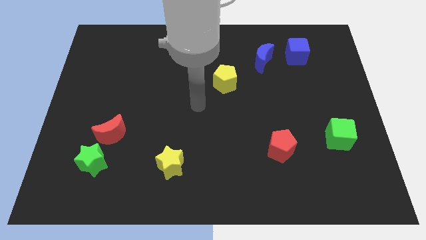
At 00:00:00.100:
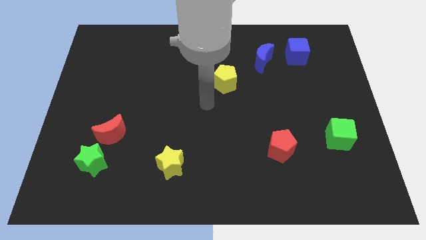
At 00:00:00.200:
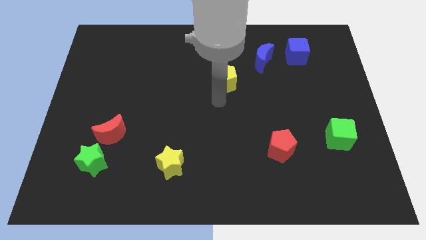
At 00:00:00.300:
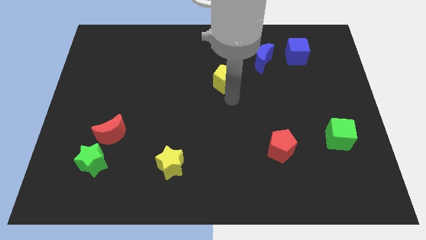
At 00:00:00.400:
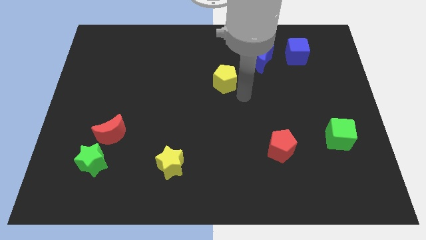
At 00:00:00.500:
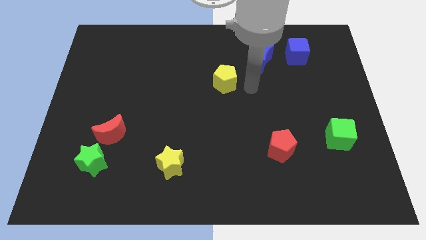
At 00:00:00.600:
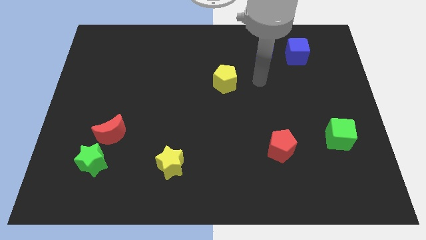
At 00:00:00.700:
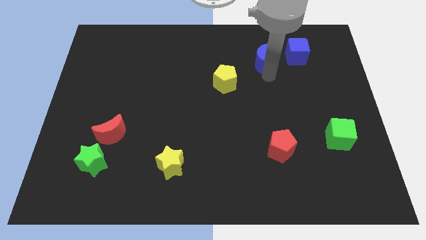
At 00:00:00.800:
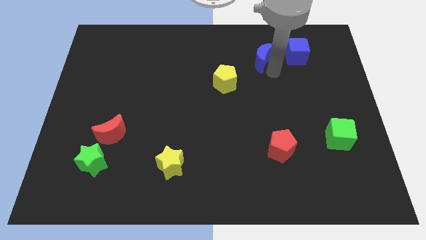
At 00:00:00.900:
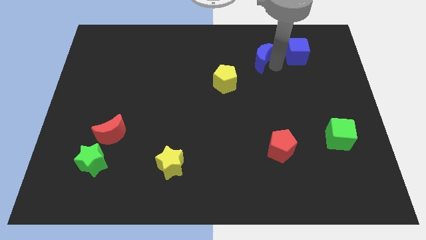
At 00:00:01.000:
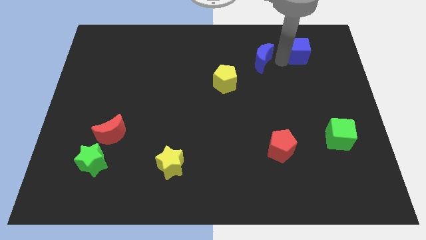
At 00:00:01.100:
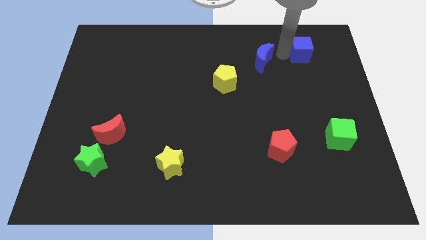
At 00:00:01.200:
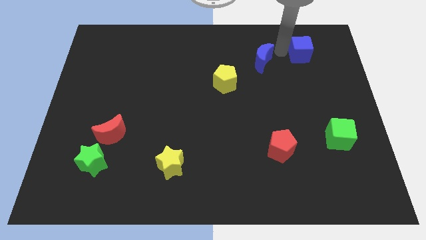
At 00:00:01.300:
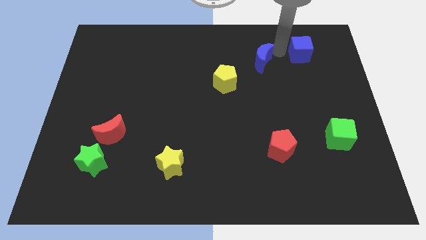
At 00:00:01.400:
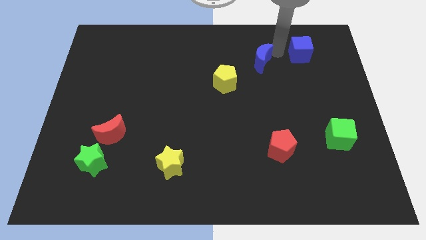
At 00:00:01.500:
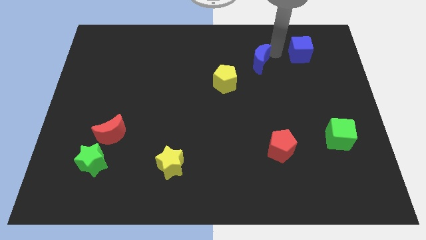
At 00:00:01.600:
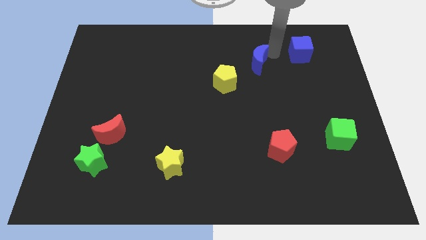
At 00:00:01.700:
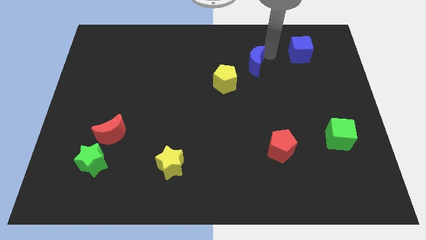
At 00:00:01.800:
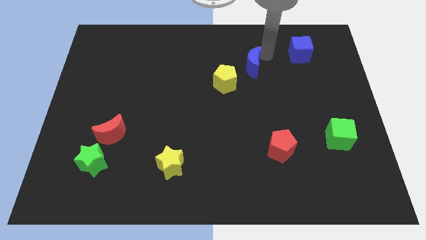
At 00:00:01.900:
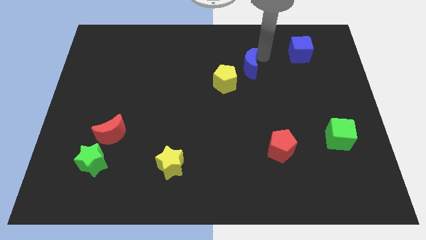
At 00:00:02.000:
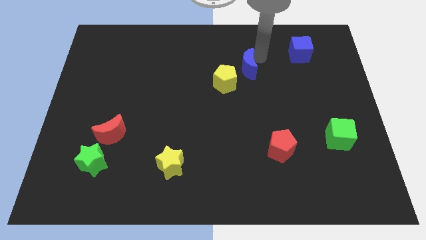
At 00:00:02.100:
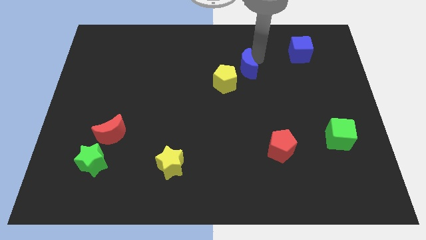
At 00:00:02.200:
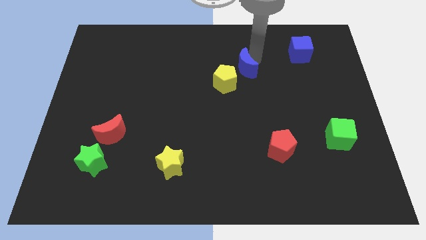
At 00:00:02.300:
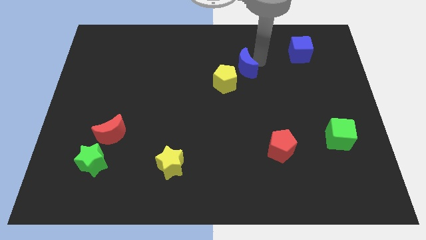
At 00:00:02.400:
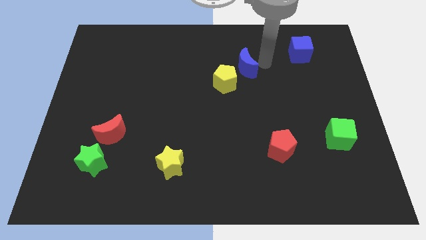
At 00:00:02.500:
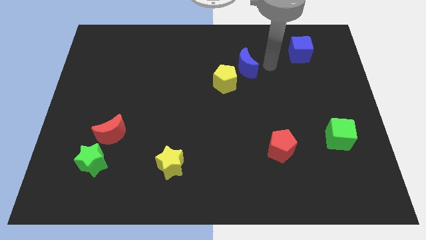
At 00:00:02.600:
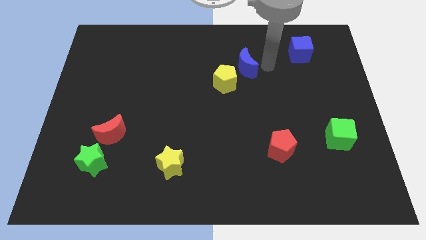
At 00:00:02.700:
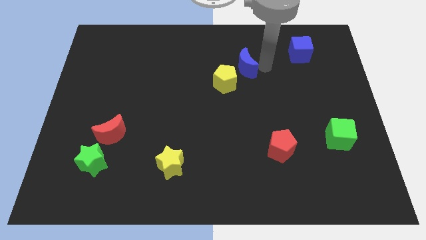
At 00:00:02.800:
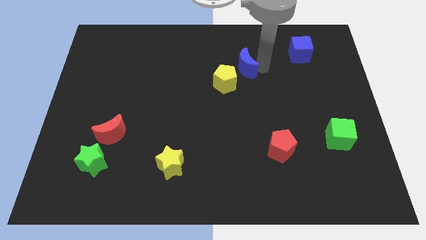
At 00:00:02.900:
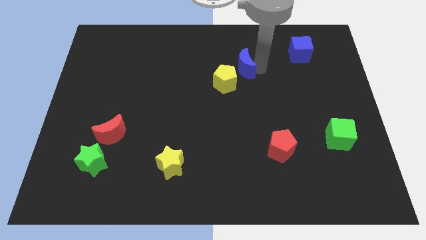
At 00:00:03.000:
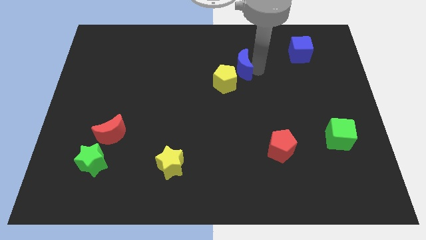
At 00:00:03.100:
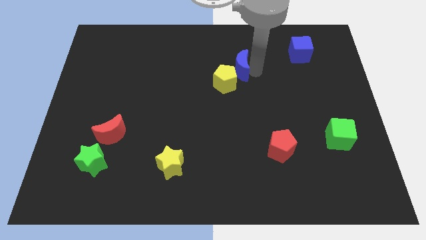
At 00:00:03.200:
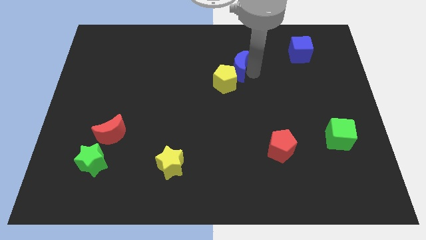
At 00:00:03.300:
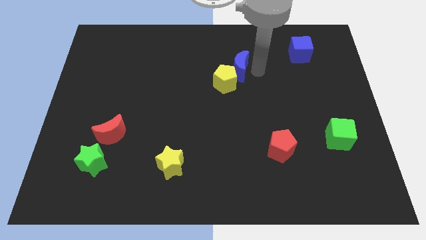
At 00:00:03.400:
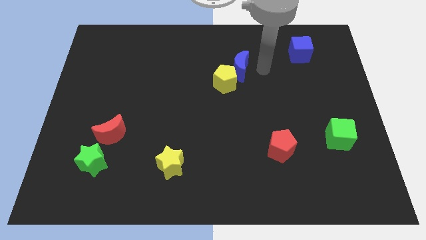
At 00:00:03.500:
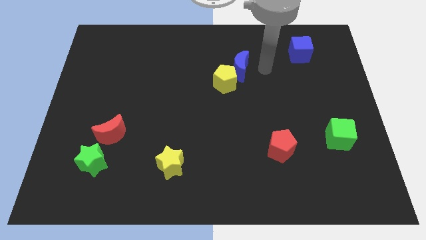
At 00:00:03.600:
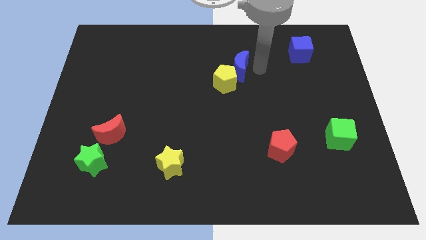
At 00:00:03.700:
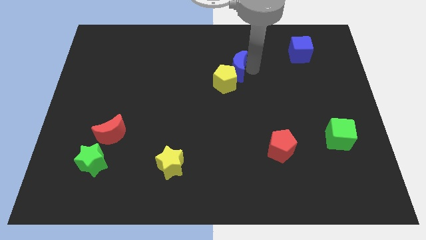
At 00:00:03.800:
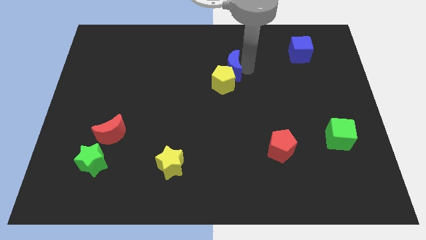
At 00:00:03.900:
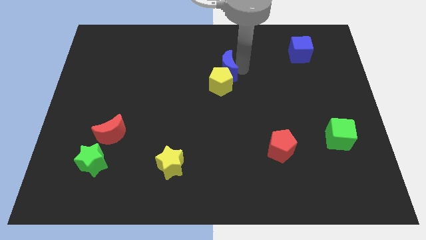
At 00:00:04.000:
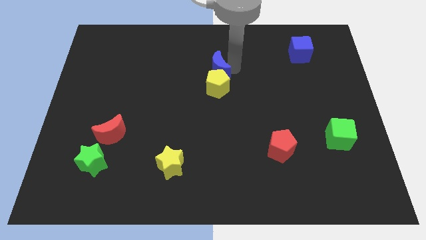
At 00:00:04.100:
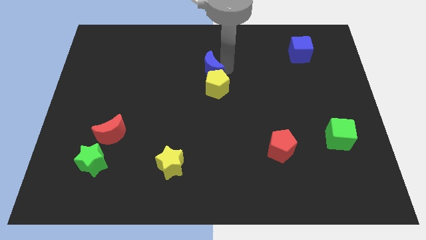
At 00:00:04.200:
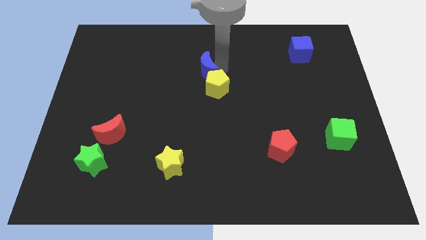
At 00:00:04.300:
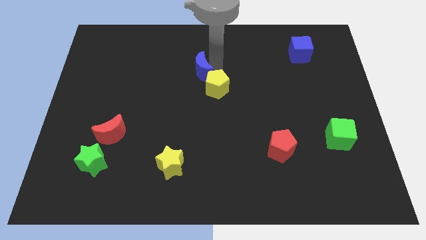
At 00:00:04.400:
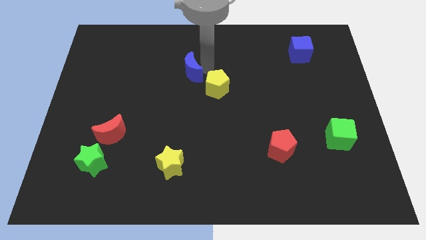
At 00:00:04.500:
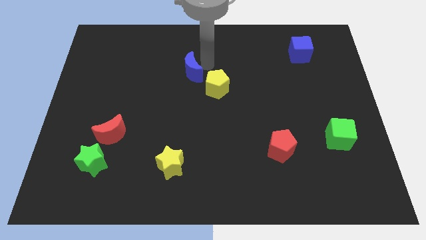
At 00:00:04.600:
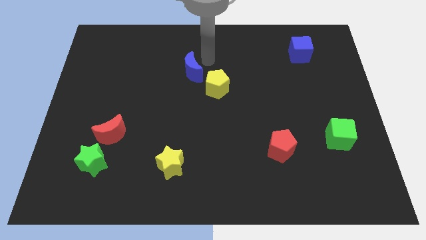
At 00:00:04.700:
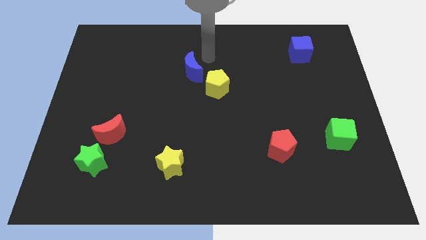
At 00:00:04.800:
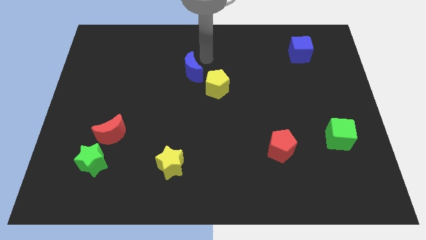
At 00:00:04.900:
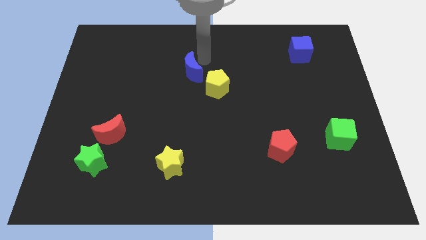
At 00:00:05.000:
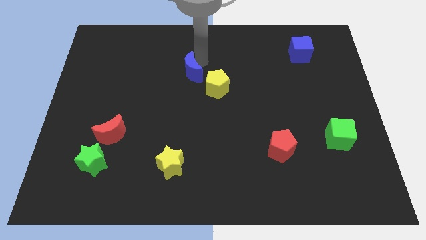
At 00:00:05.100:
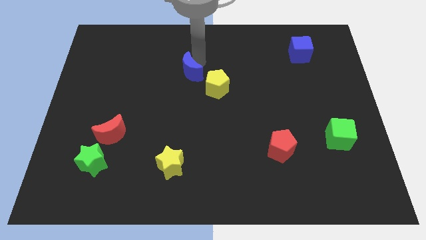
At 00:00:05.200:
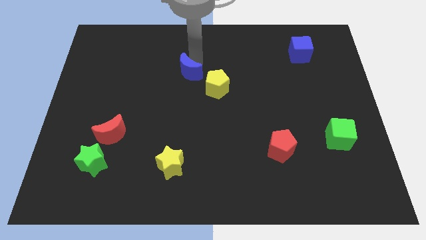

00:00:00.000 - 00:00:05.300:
move the blue moon to the left side of the yellow pentagon

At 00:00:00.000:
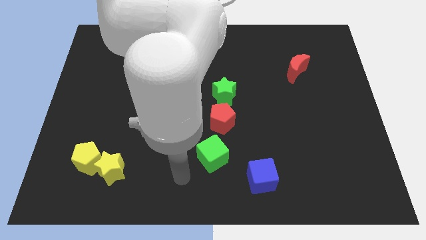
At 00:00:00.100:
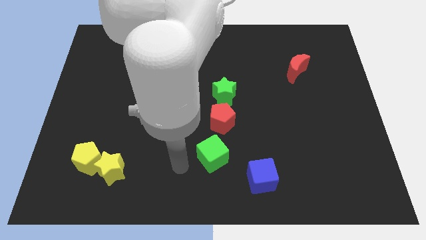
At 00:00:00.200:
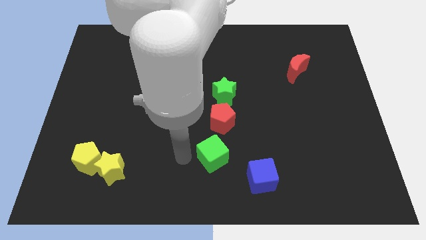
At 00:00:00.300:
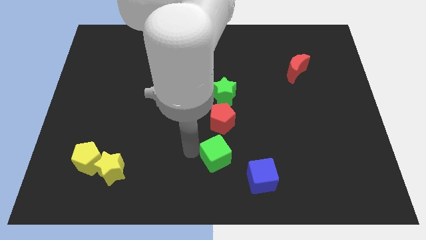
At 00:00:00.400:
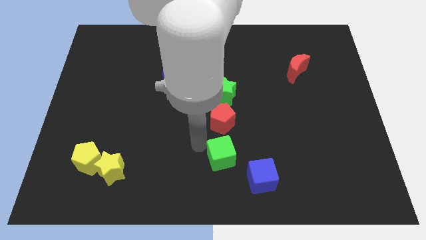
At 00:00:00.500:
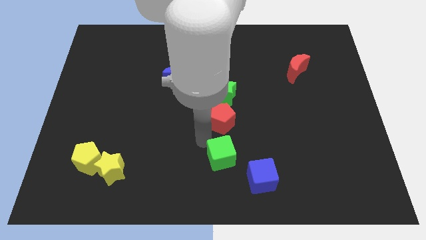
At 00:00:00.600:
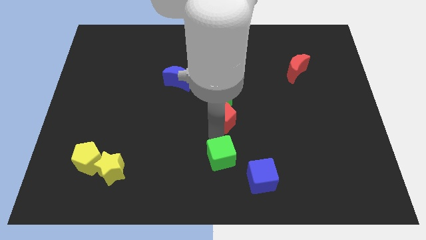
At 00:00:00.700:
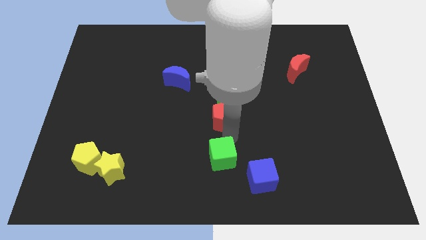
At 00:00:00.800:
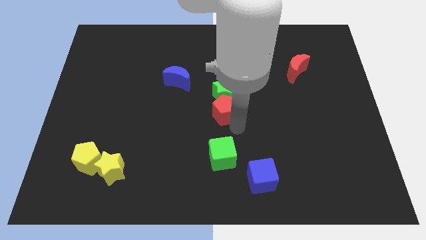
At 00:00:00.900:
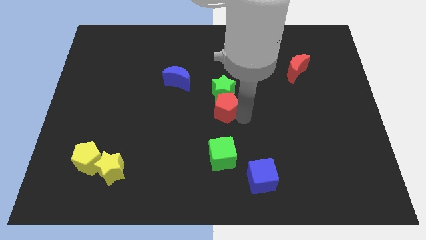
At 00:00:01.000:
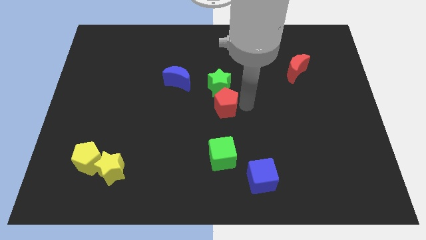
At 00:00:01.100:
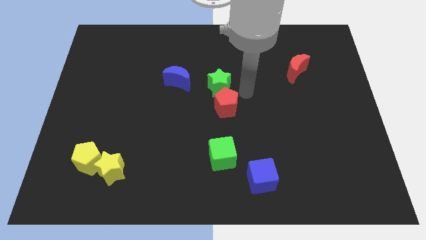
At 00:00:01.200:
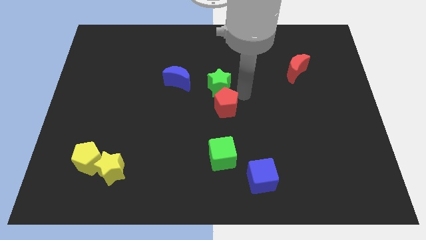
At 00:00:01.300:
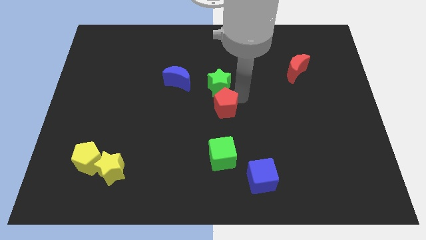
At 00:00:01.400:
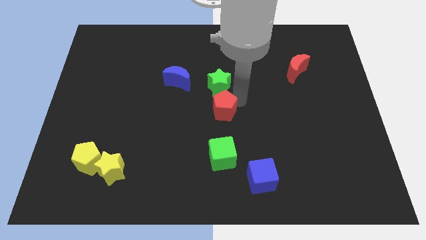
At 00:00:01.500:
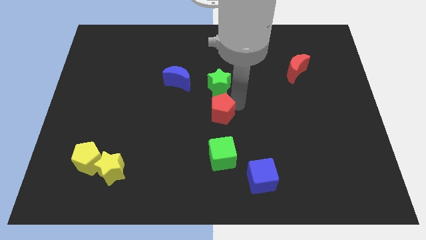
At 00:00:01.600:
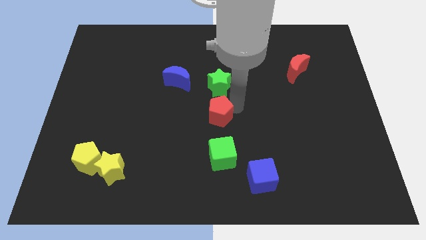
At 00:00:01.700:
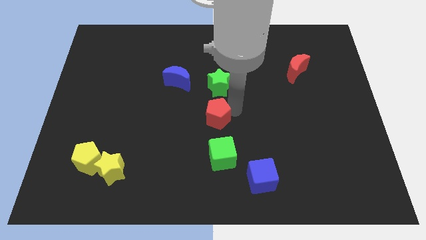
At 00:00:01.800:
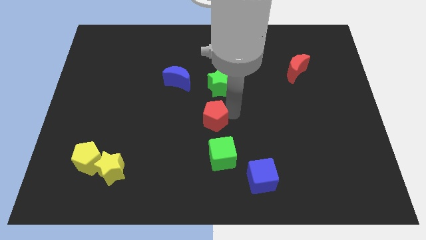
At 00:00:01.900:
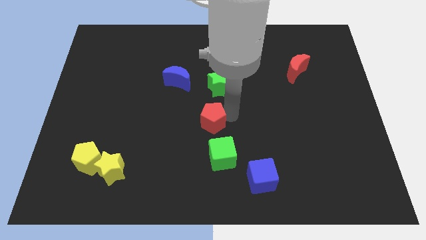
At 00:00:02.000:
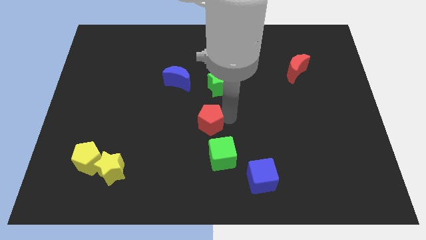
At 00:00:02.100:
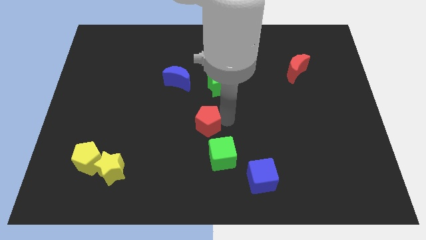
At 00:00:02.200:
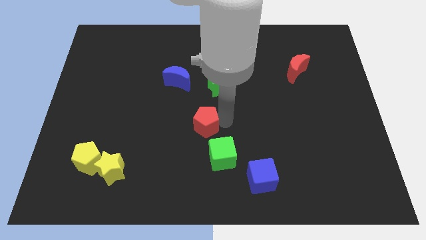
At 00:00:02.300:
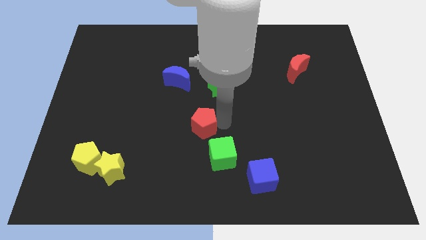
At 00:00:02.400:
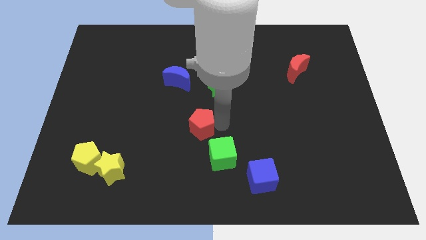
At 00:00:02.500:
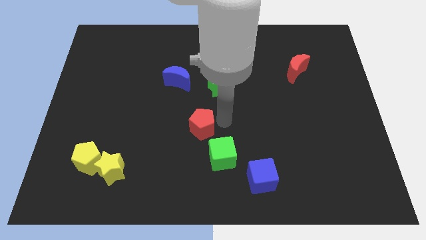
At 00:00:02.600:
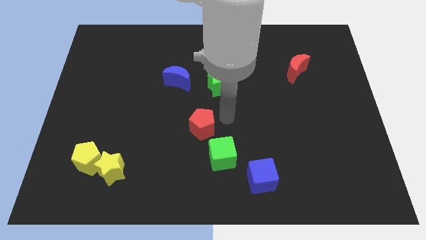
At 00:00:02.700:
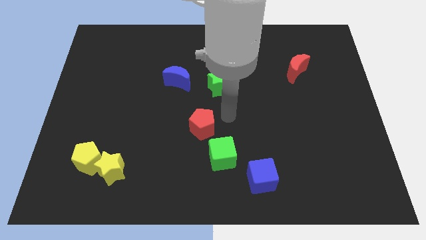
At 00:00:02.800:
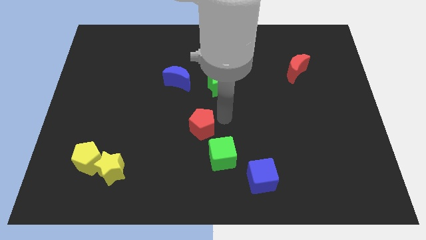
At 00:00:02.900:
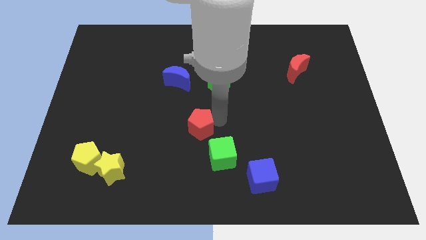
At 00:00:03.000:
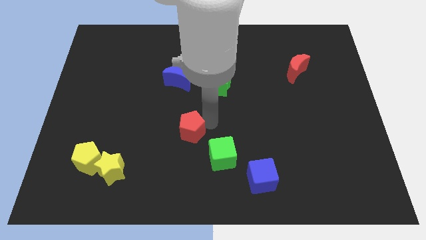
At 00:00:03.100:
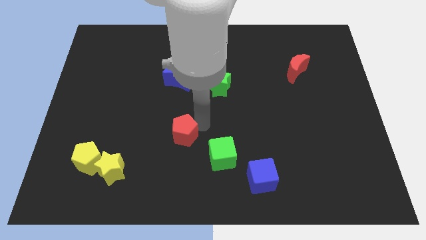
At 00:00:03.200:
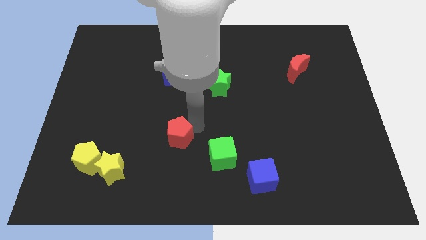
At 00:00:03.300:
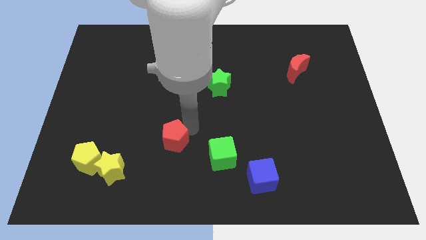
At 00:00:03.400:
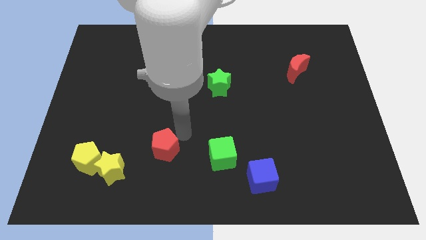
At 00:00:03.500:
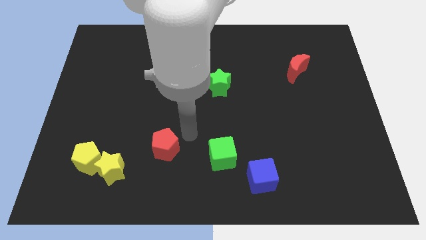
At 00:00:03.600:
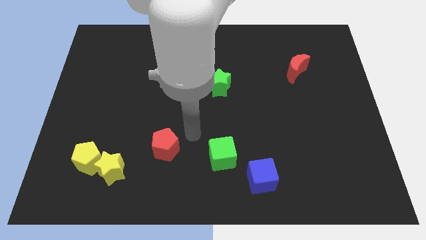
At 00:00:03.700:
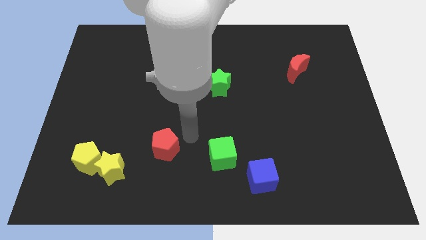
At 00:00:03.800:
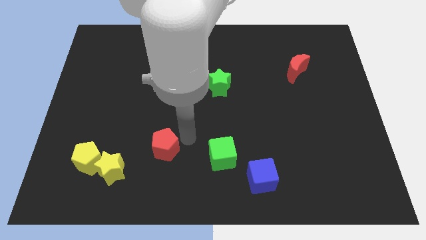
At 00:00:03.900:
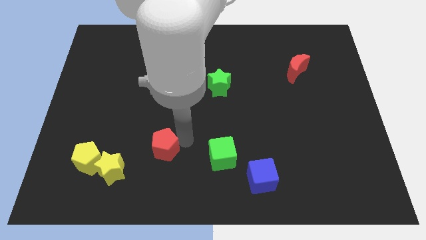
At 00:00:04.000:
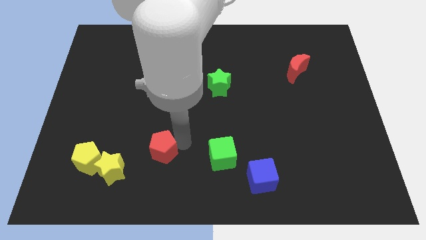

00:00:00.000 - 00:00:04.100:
slide the red pentagon right of the yellow pentagon
